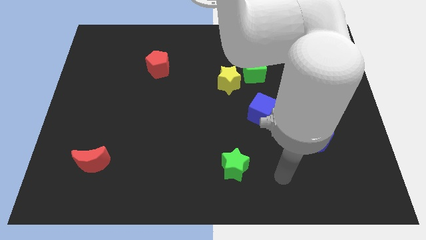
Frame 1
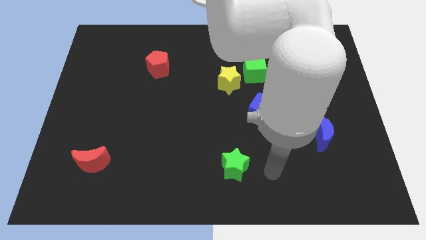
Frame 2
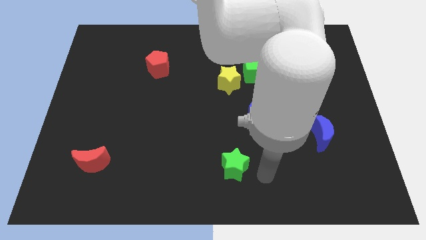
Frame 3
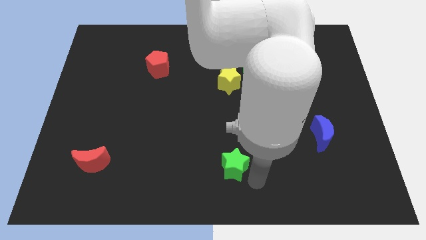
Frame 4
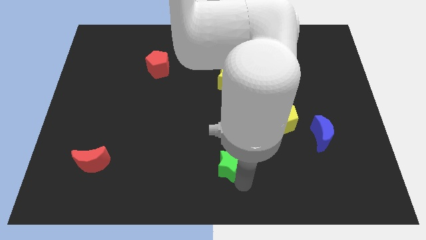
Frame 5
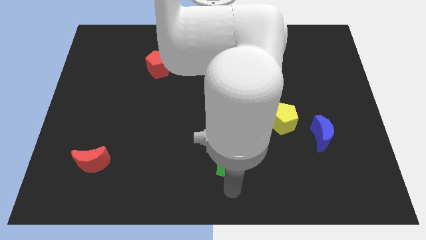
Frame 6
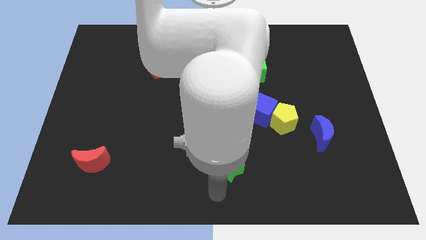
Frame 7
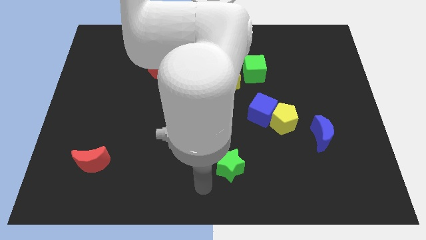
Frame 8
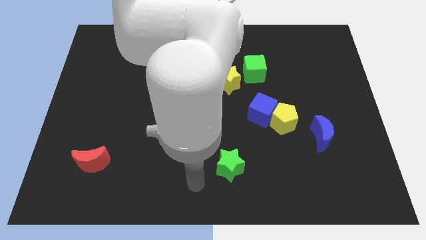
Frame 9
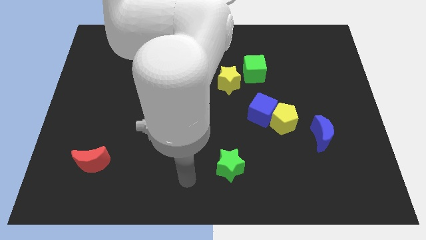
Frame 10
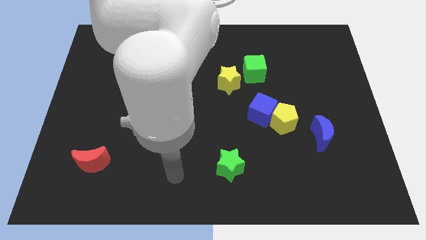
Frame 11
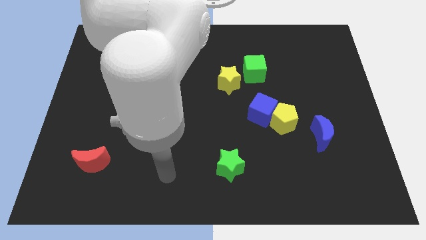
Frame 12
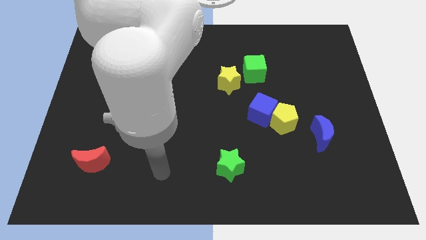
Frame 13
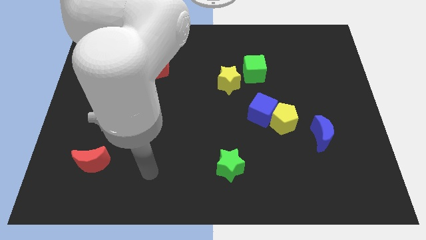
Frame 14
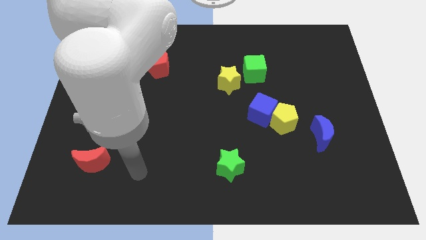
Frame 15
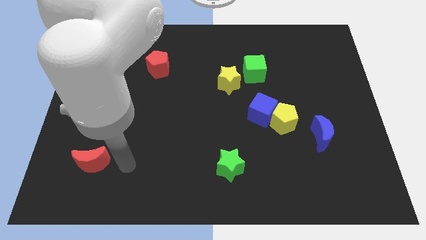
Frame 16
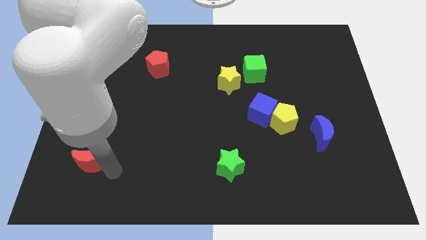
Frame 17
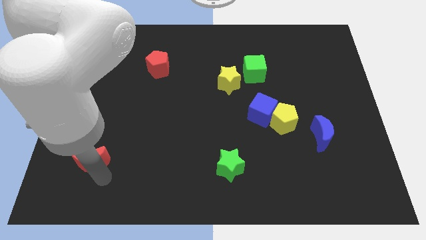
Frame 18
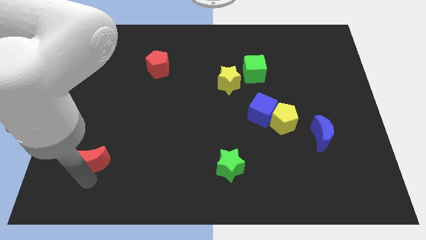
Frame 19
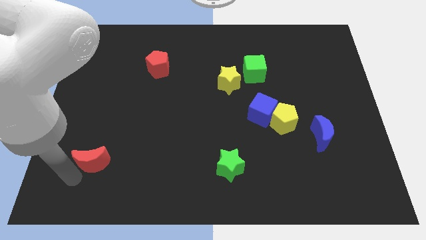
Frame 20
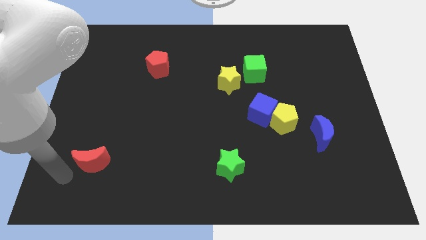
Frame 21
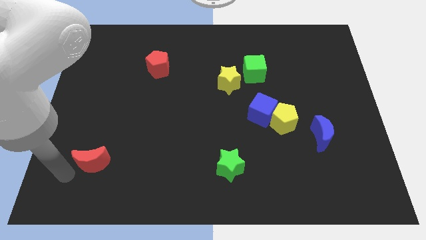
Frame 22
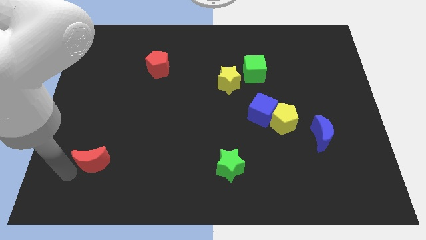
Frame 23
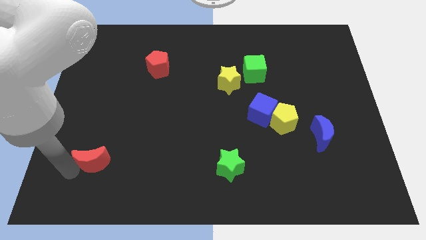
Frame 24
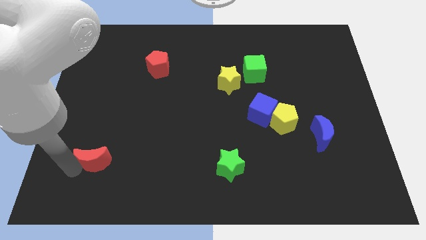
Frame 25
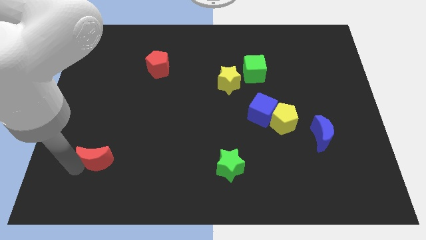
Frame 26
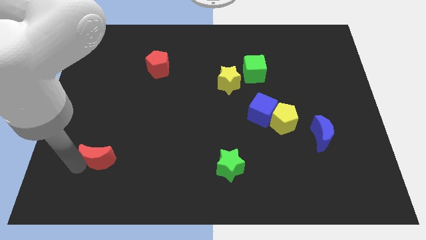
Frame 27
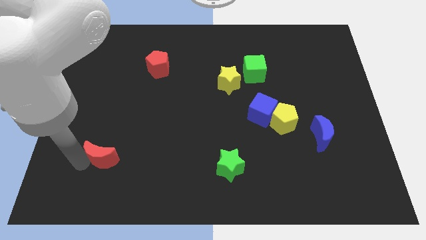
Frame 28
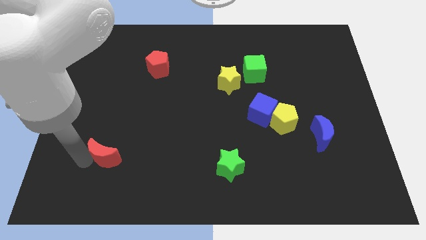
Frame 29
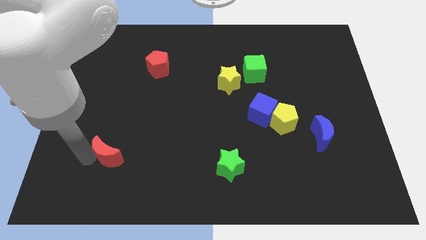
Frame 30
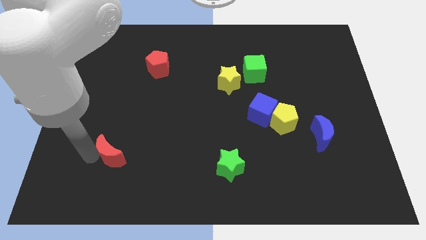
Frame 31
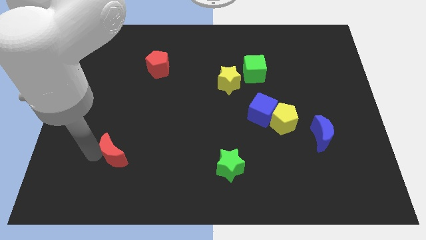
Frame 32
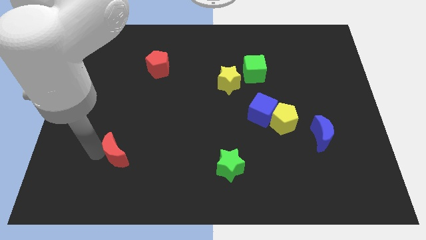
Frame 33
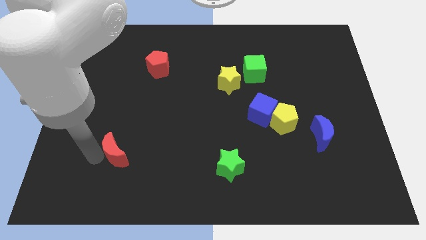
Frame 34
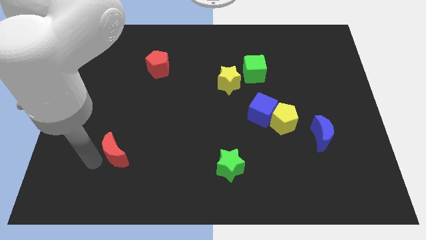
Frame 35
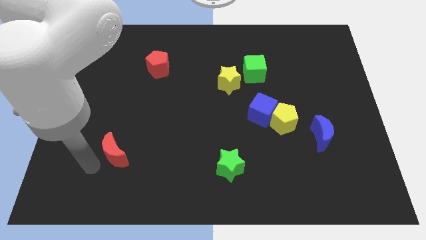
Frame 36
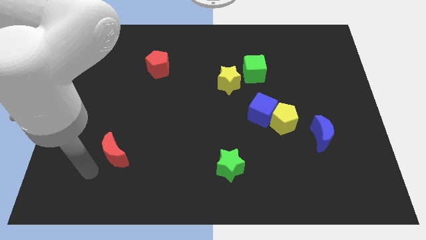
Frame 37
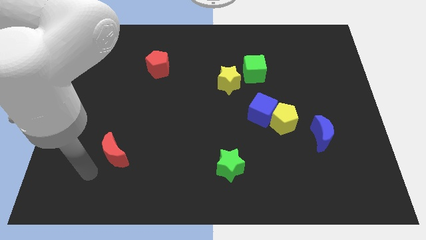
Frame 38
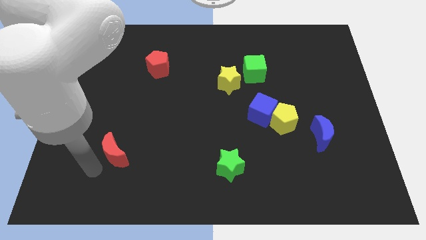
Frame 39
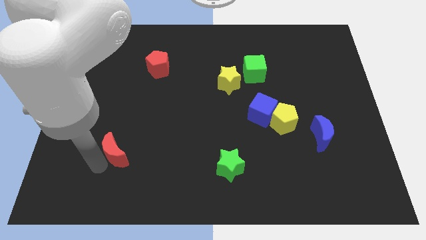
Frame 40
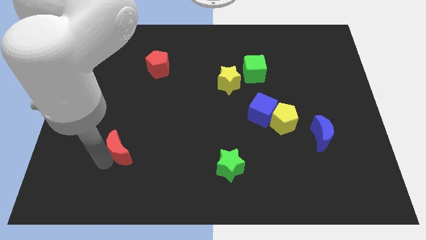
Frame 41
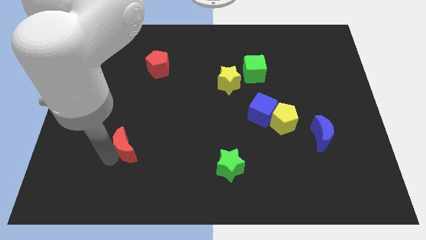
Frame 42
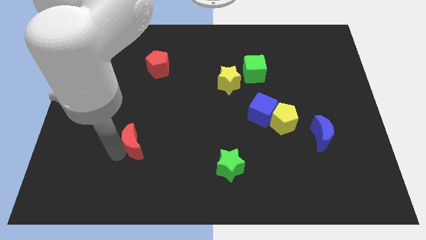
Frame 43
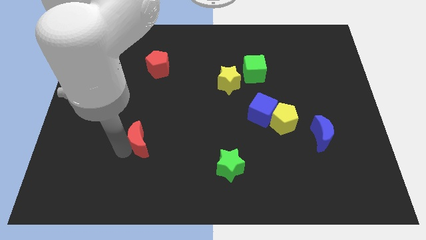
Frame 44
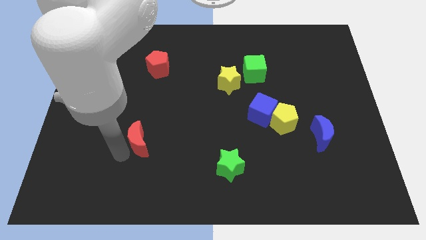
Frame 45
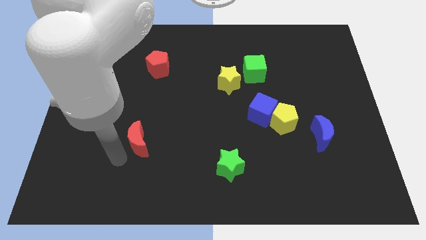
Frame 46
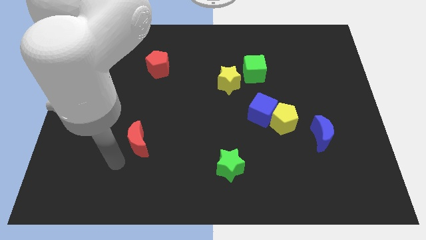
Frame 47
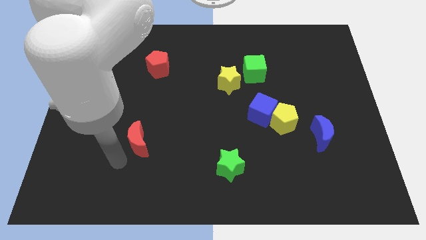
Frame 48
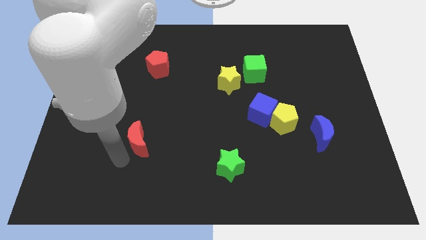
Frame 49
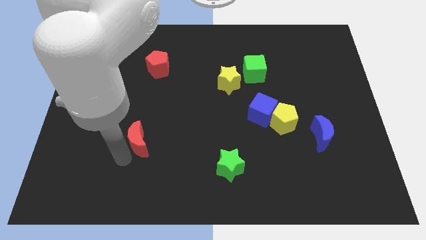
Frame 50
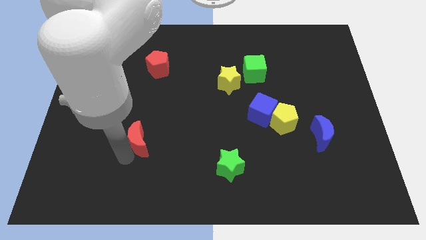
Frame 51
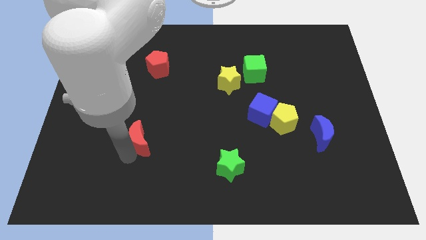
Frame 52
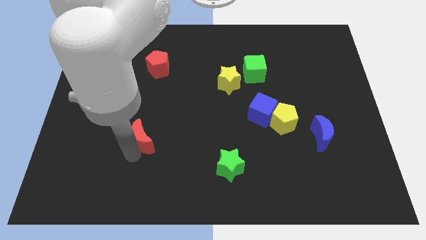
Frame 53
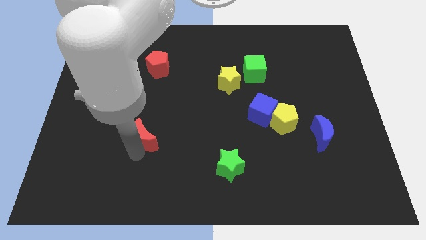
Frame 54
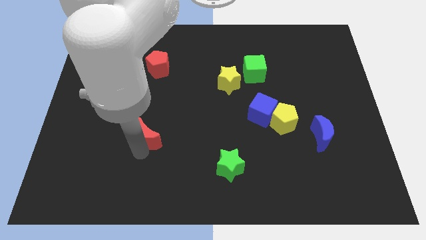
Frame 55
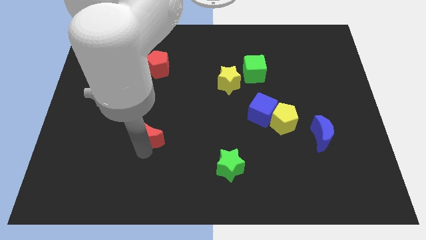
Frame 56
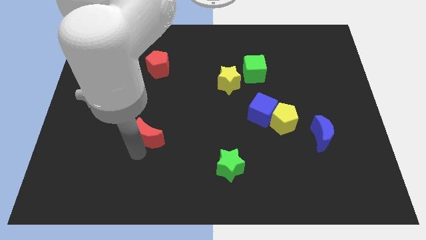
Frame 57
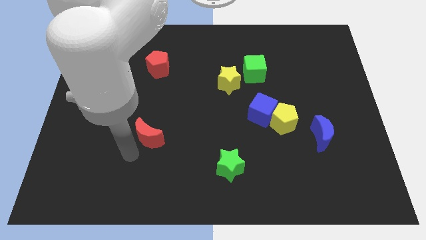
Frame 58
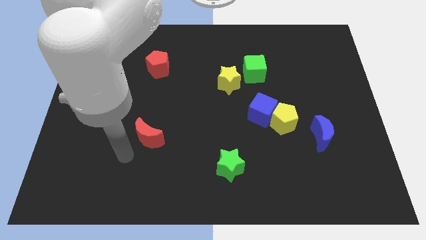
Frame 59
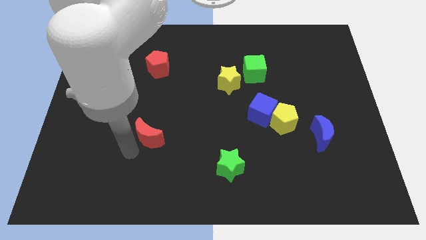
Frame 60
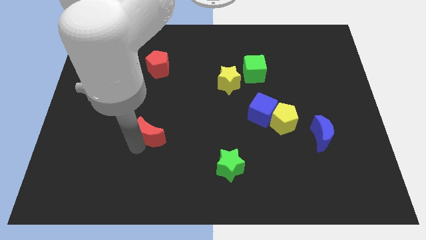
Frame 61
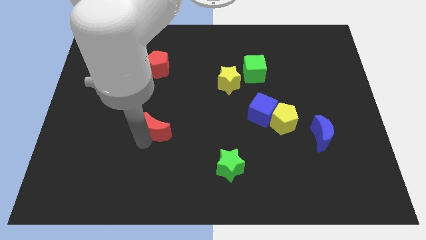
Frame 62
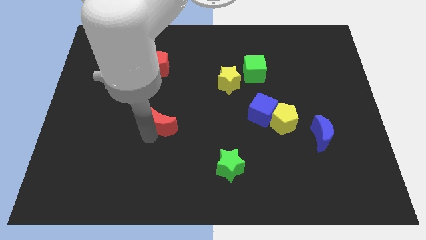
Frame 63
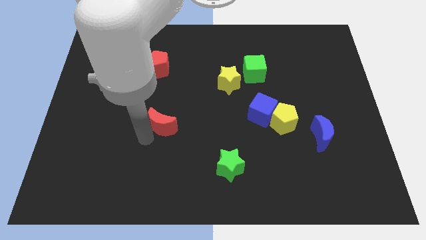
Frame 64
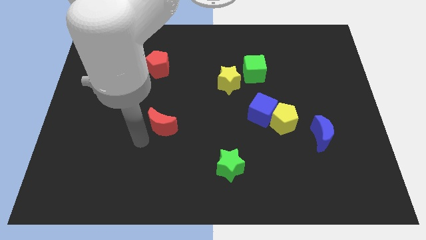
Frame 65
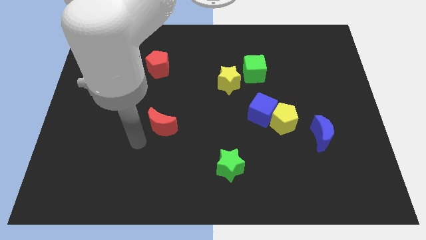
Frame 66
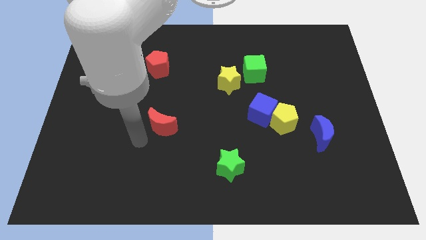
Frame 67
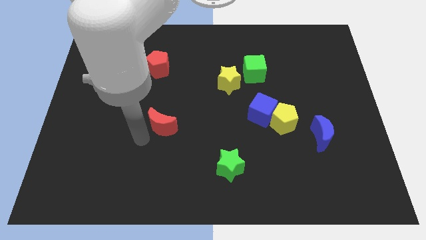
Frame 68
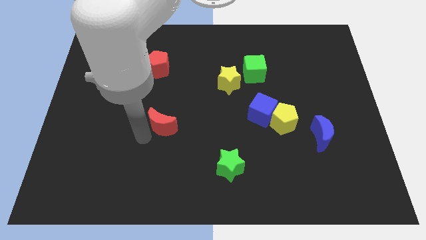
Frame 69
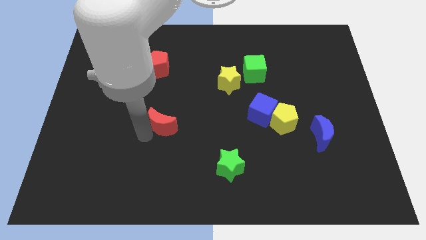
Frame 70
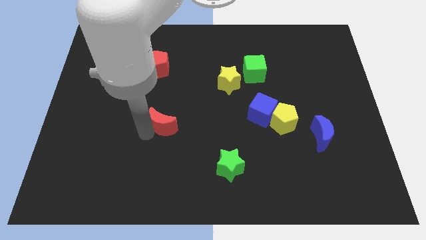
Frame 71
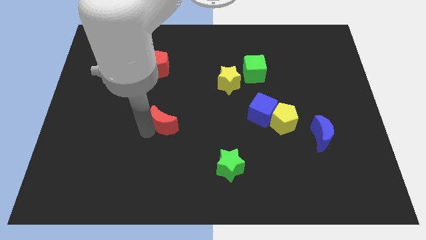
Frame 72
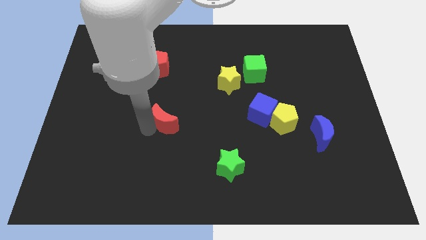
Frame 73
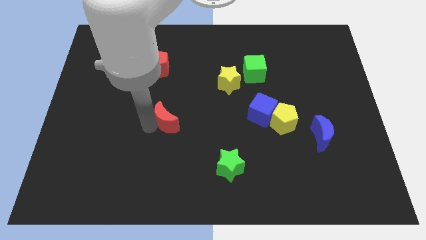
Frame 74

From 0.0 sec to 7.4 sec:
move the red moon to the center

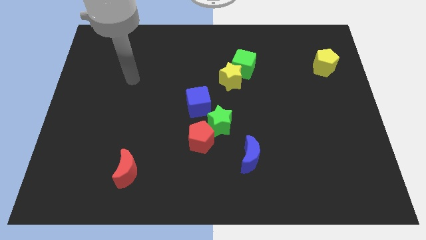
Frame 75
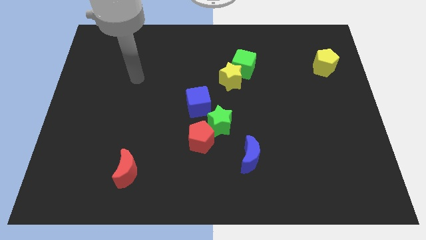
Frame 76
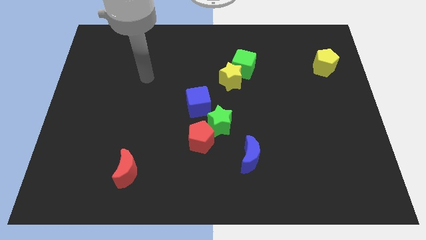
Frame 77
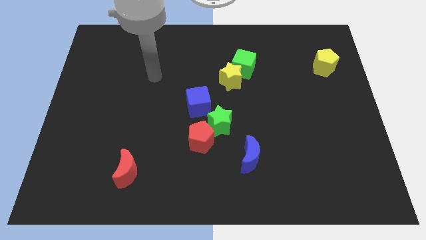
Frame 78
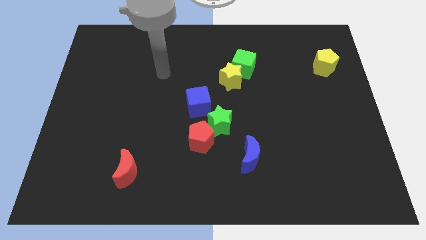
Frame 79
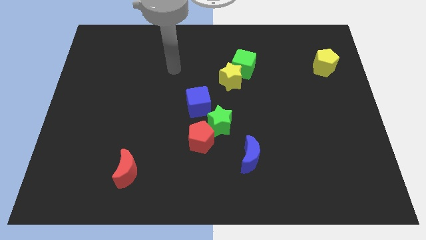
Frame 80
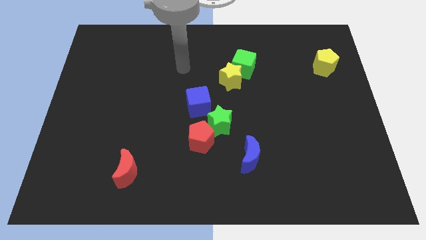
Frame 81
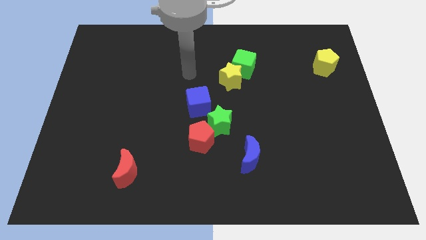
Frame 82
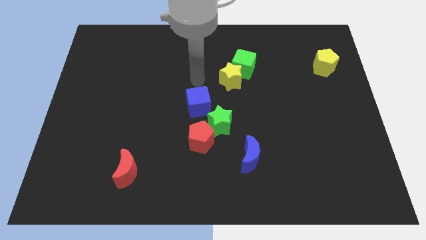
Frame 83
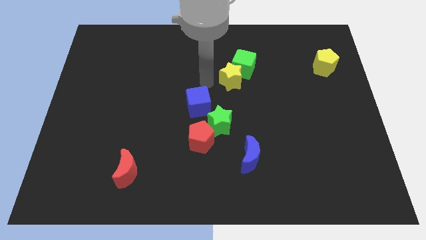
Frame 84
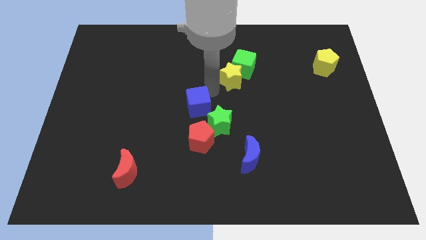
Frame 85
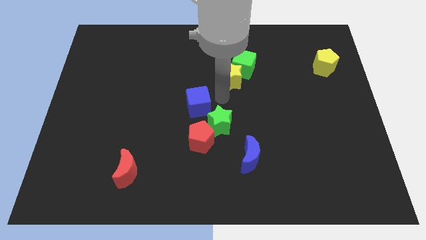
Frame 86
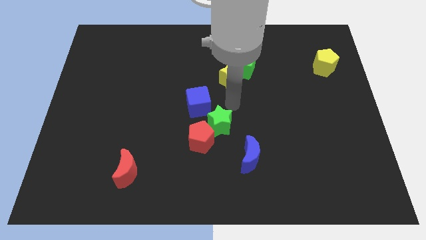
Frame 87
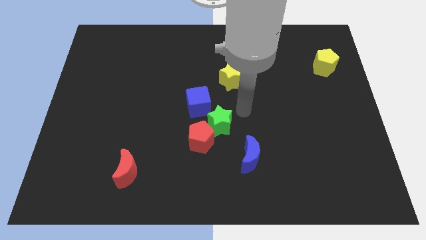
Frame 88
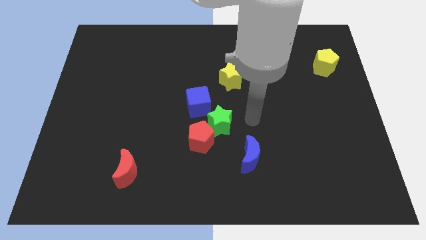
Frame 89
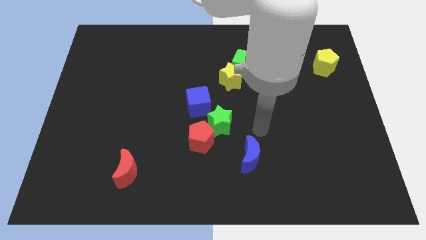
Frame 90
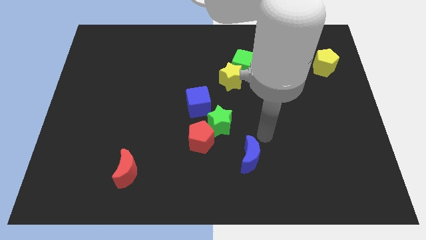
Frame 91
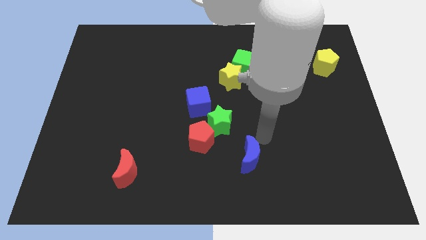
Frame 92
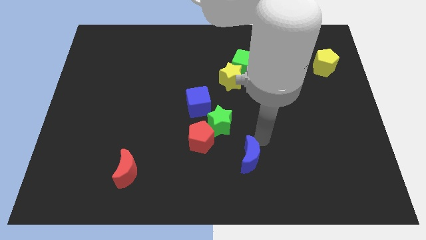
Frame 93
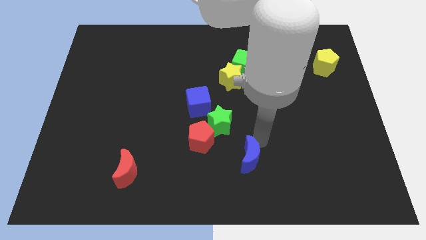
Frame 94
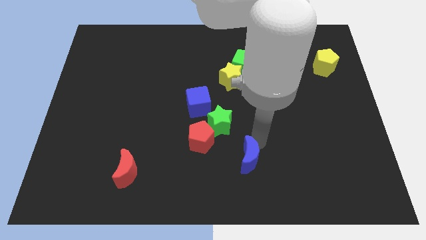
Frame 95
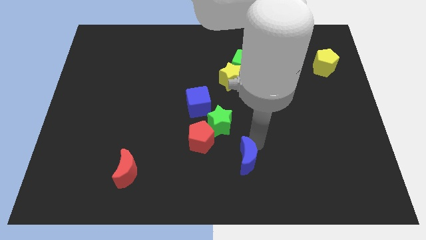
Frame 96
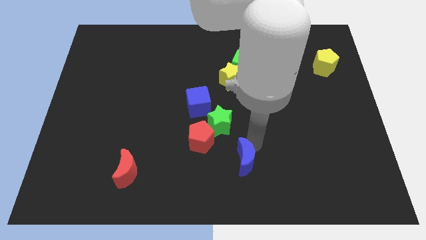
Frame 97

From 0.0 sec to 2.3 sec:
slide the blue moon to the bottom
